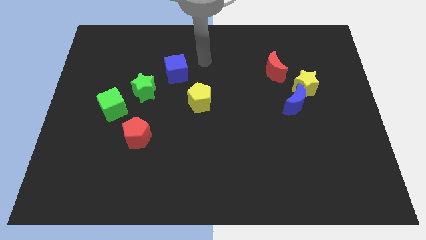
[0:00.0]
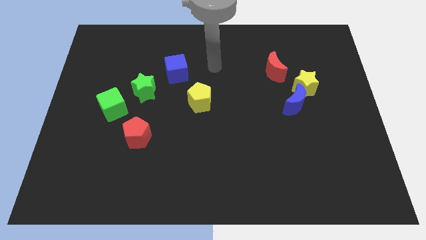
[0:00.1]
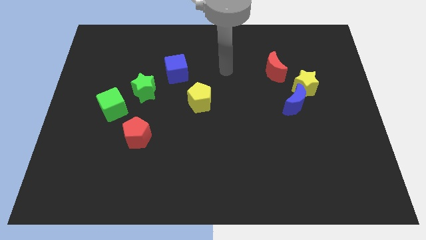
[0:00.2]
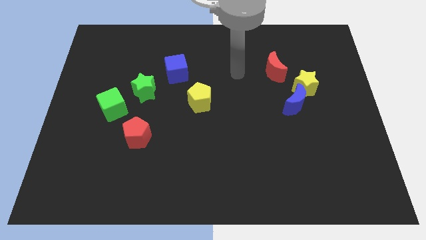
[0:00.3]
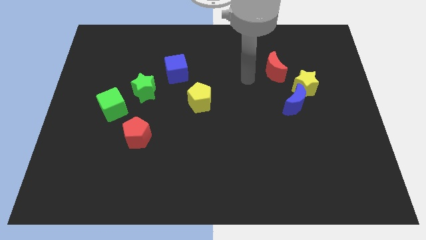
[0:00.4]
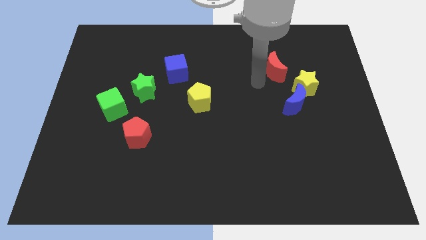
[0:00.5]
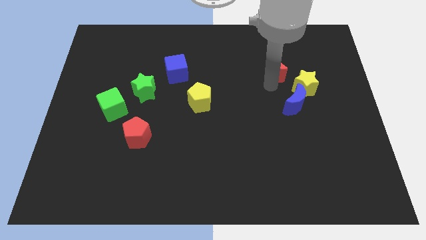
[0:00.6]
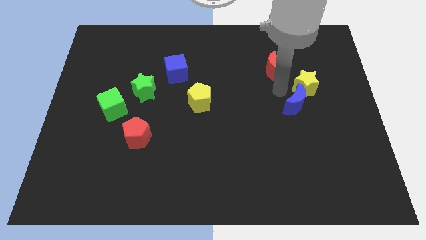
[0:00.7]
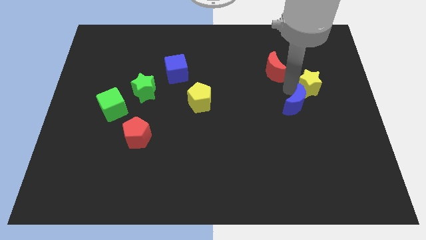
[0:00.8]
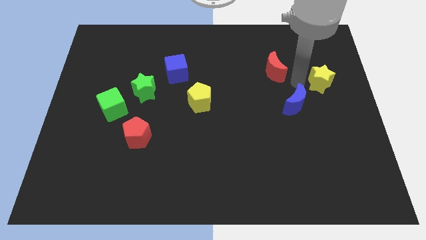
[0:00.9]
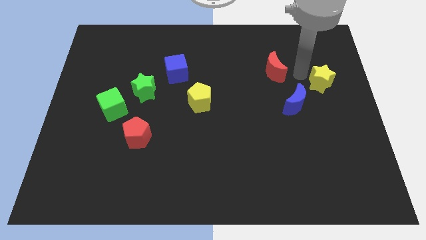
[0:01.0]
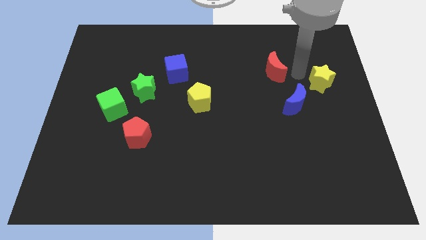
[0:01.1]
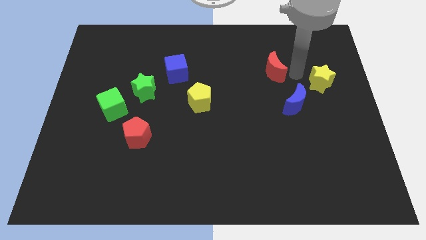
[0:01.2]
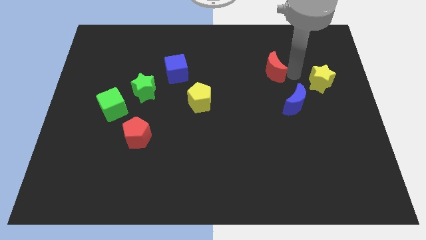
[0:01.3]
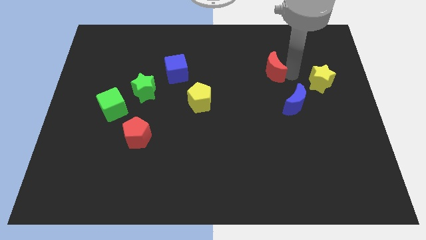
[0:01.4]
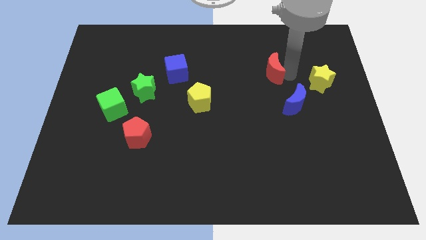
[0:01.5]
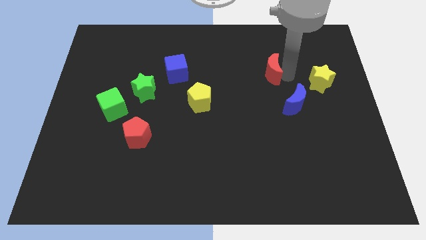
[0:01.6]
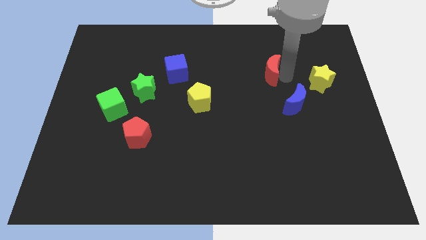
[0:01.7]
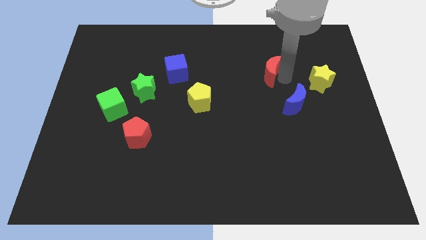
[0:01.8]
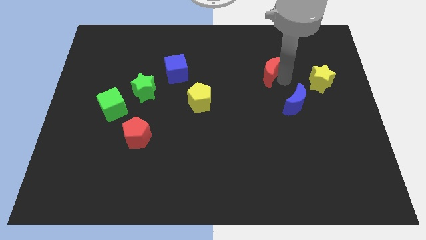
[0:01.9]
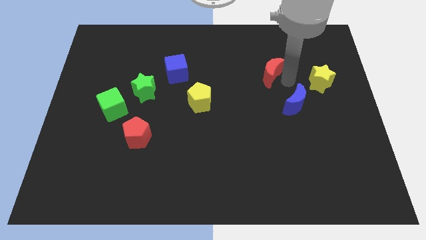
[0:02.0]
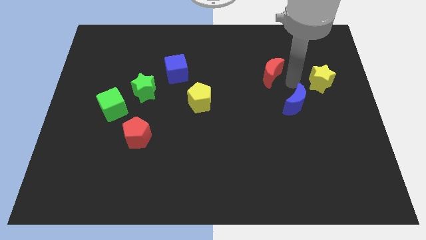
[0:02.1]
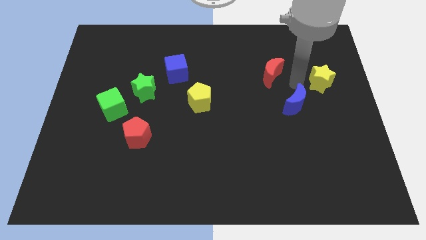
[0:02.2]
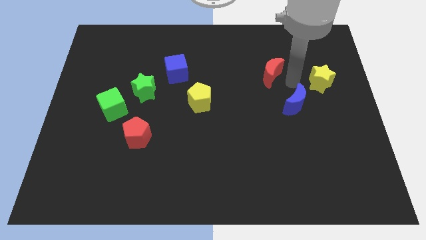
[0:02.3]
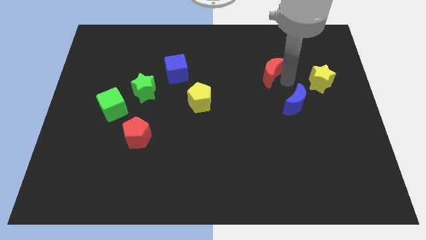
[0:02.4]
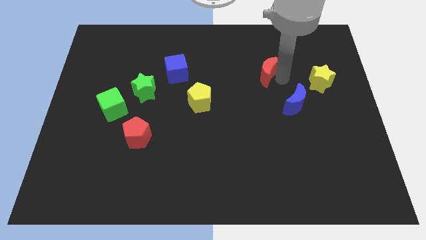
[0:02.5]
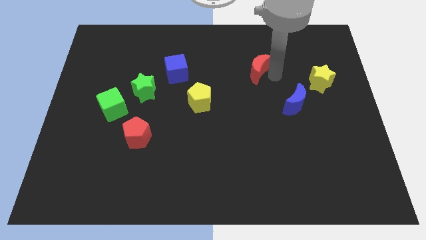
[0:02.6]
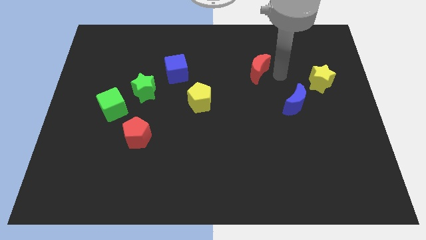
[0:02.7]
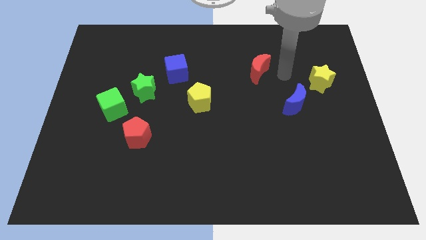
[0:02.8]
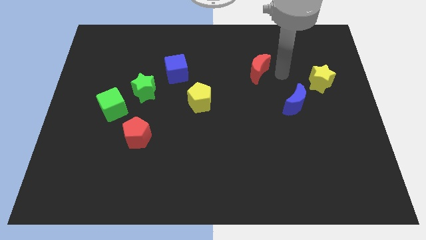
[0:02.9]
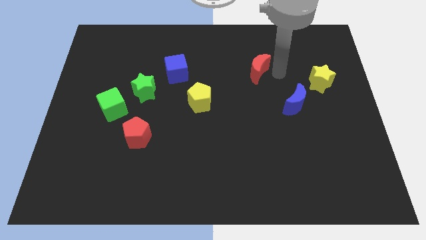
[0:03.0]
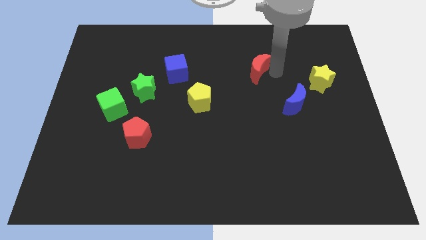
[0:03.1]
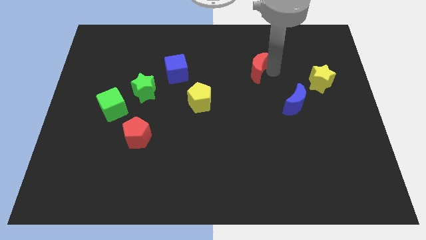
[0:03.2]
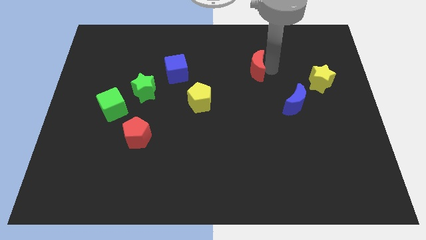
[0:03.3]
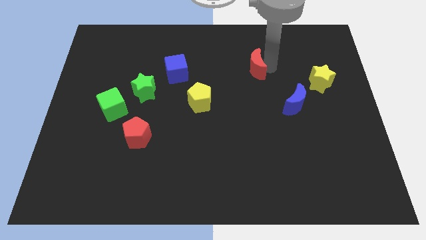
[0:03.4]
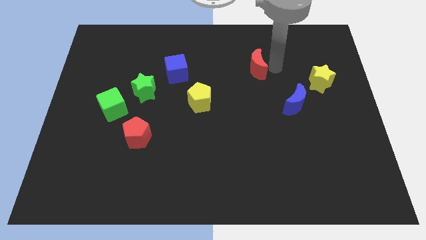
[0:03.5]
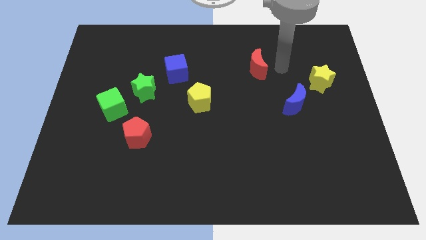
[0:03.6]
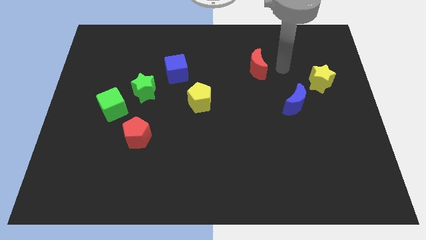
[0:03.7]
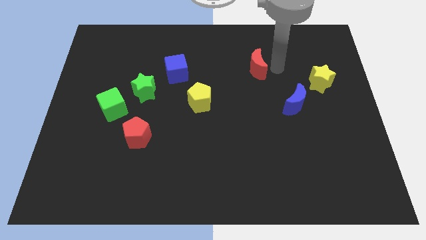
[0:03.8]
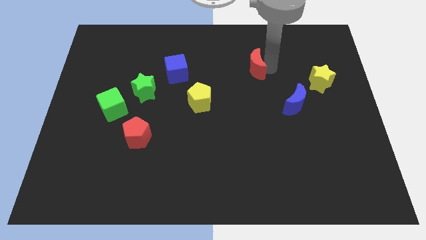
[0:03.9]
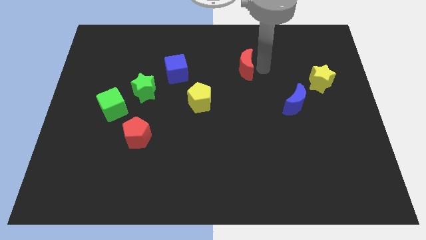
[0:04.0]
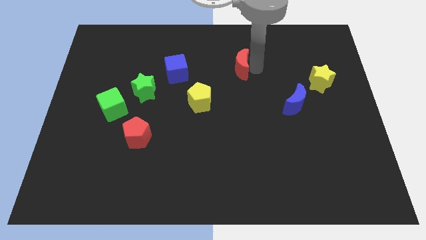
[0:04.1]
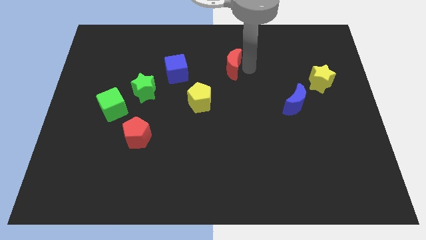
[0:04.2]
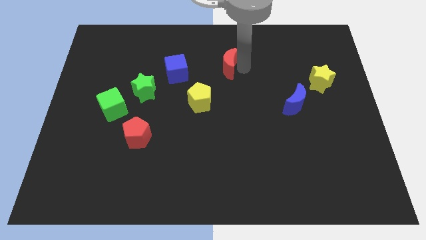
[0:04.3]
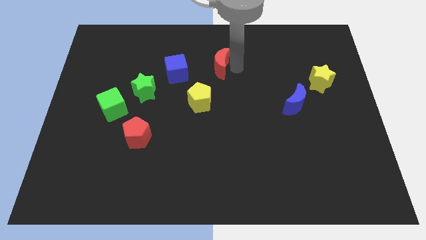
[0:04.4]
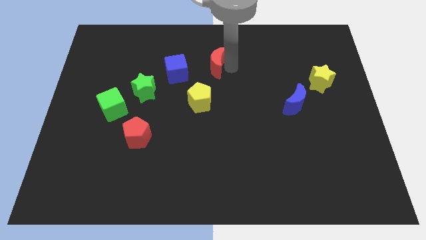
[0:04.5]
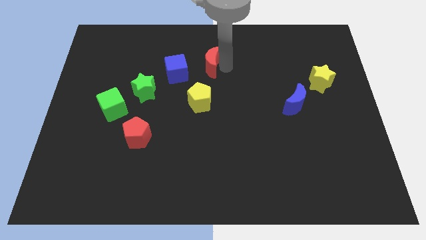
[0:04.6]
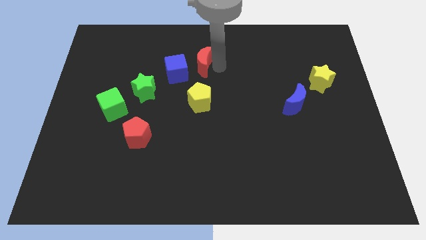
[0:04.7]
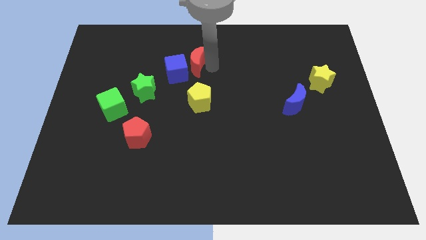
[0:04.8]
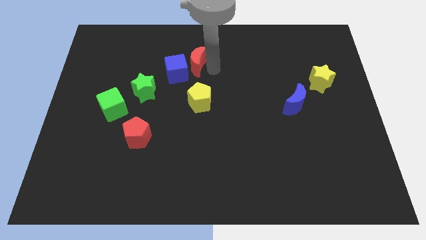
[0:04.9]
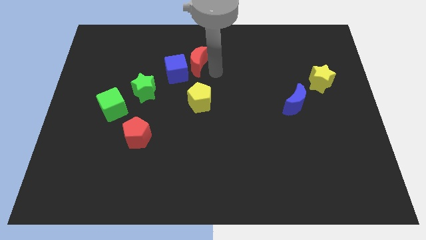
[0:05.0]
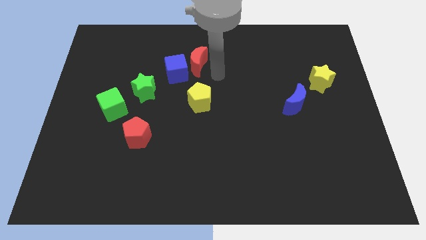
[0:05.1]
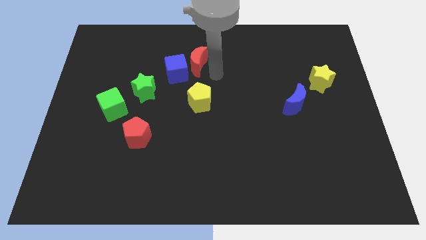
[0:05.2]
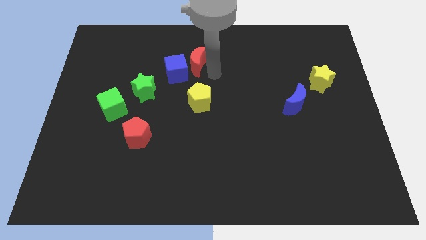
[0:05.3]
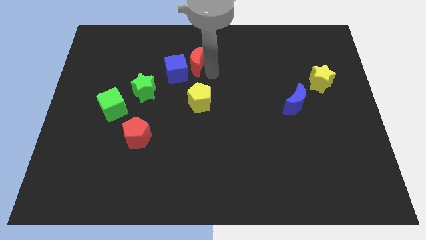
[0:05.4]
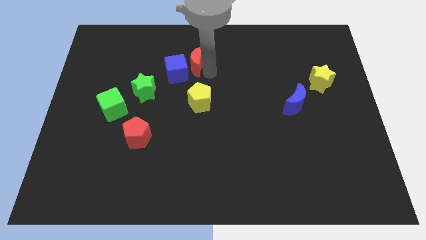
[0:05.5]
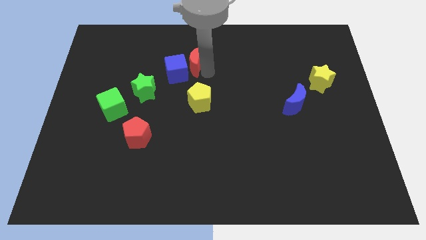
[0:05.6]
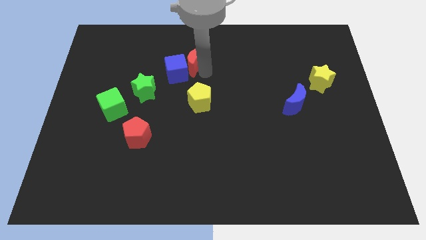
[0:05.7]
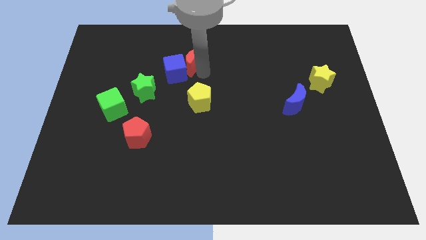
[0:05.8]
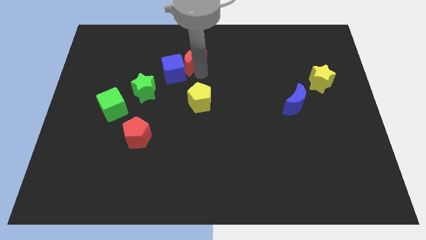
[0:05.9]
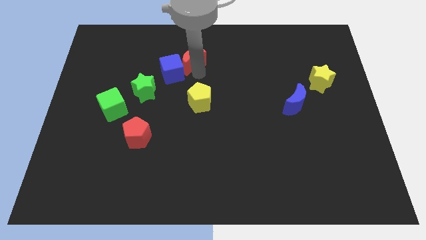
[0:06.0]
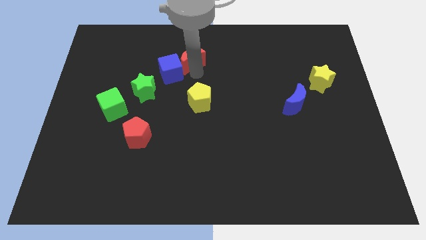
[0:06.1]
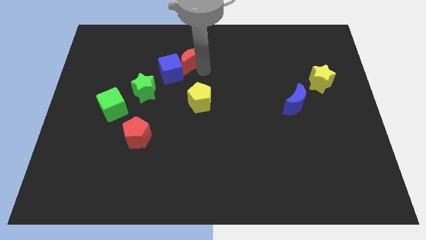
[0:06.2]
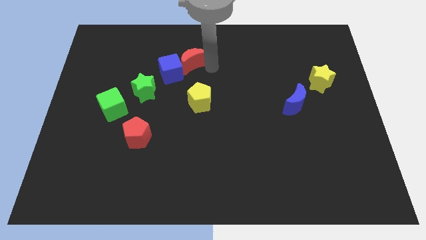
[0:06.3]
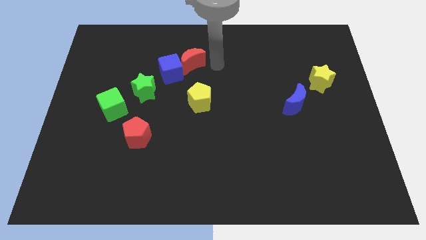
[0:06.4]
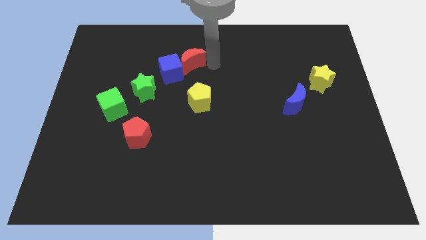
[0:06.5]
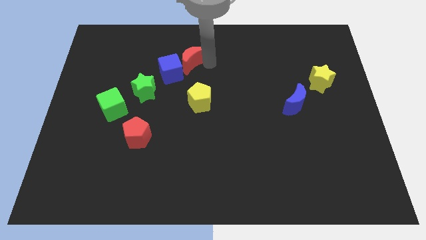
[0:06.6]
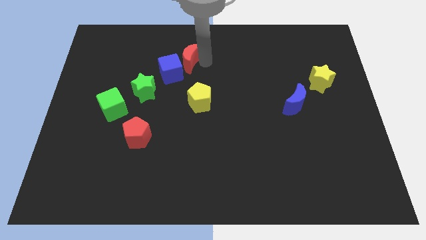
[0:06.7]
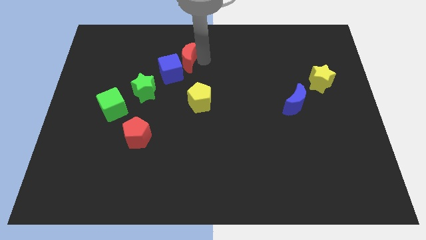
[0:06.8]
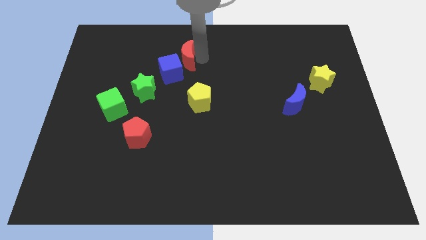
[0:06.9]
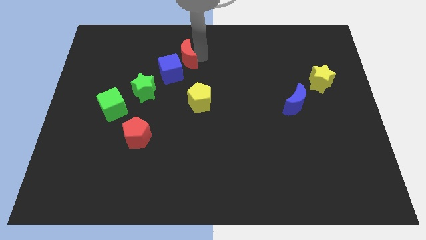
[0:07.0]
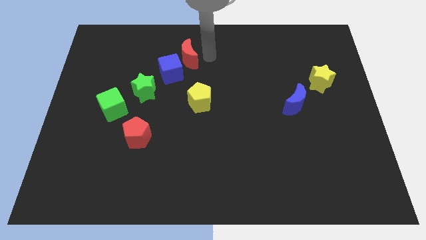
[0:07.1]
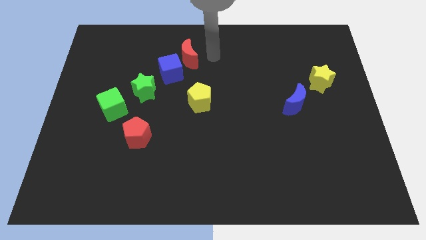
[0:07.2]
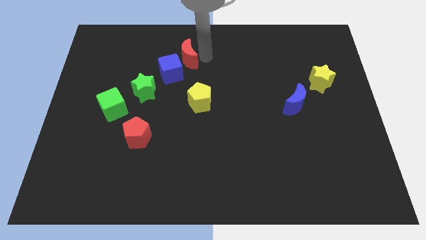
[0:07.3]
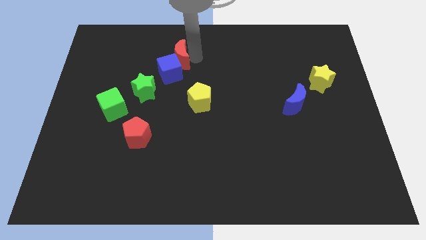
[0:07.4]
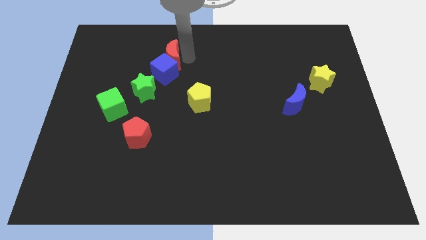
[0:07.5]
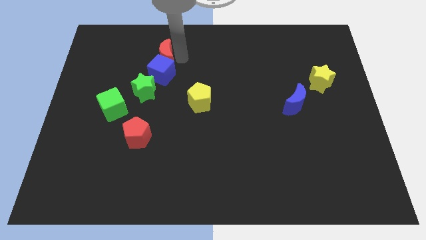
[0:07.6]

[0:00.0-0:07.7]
slide the red moon to the top of the green star
